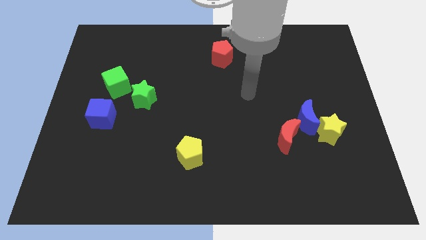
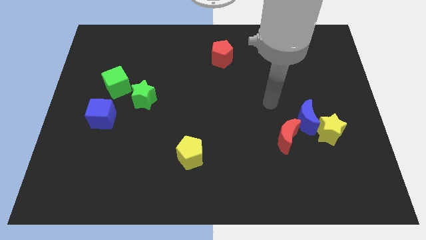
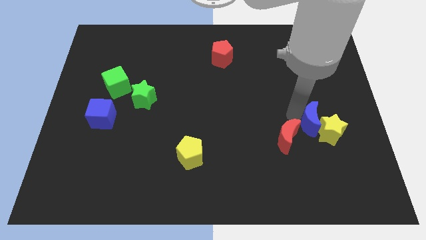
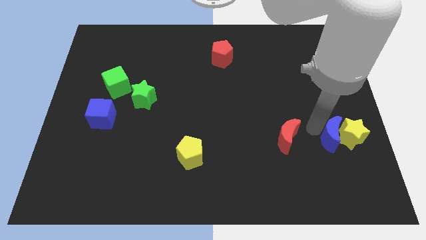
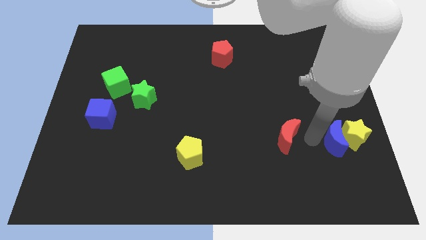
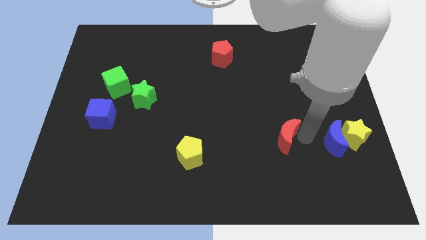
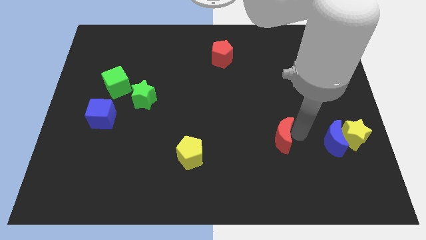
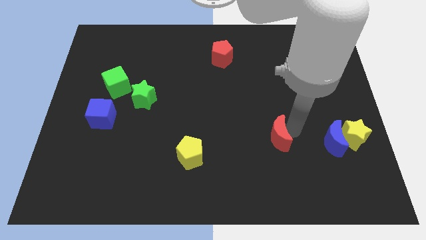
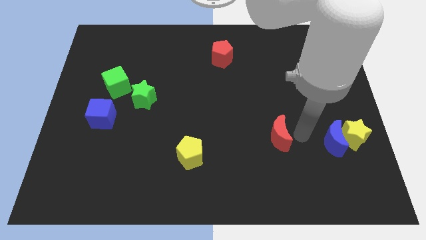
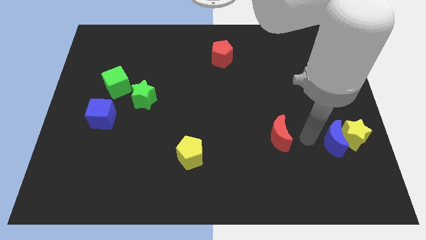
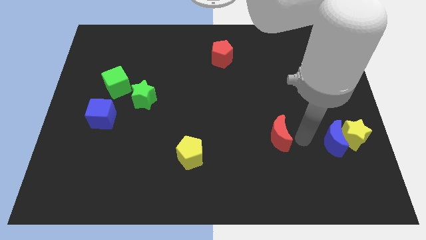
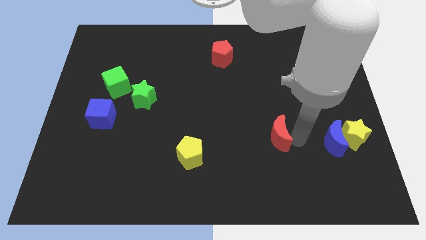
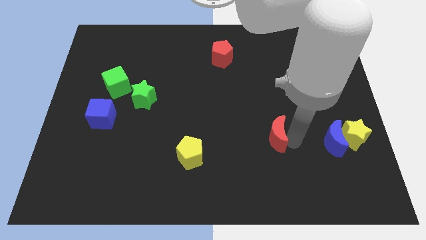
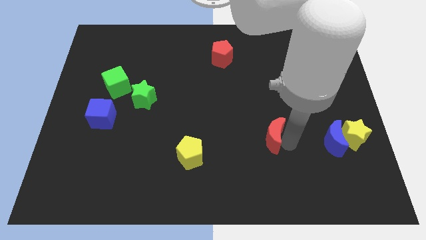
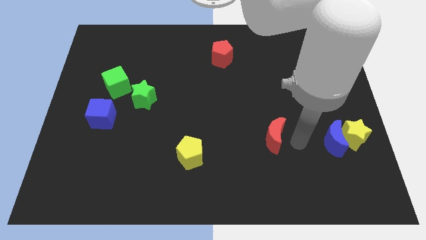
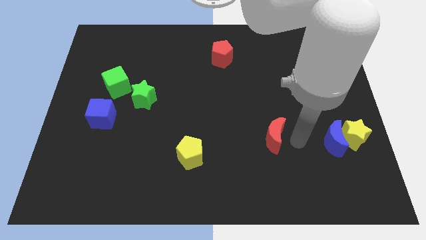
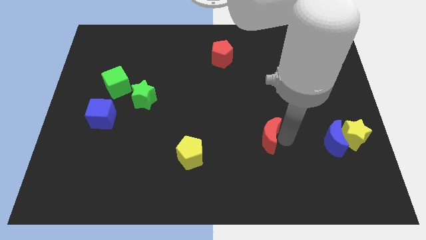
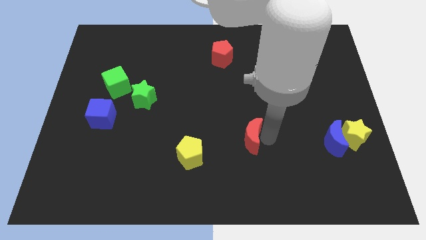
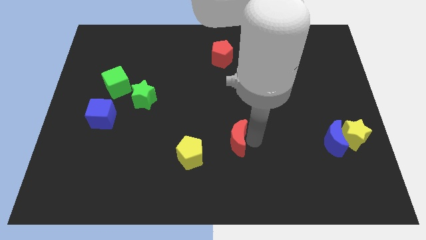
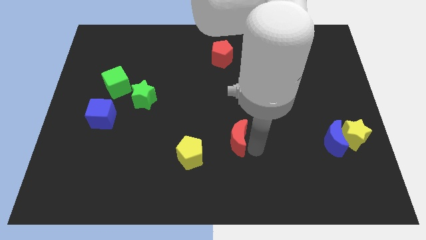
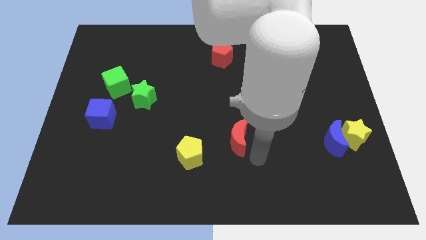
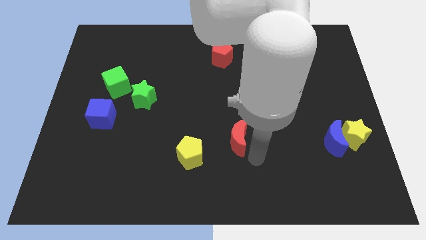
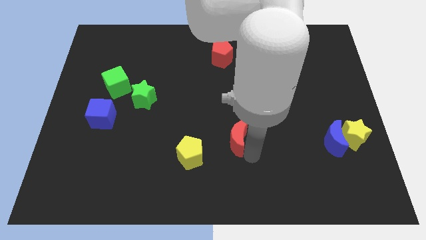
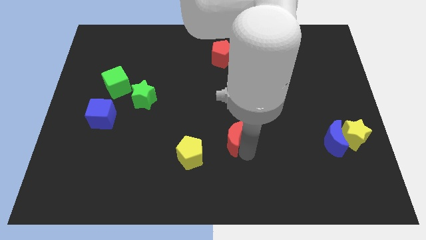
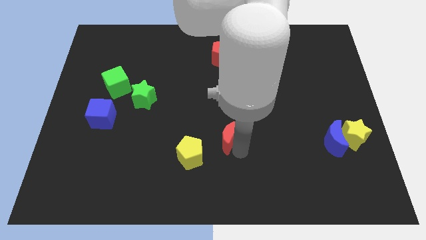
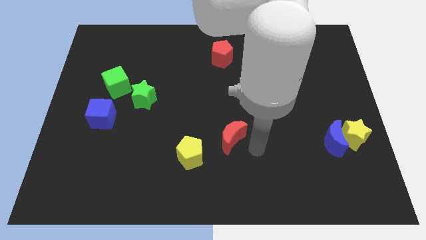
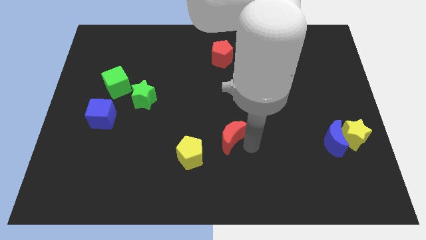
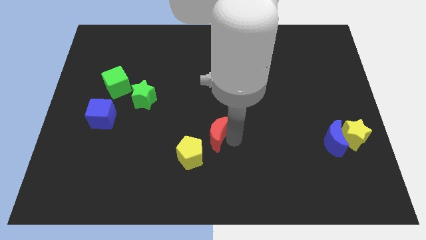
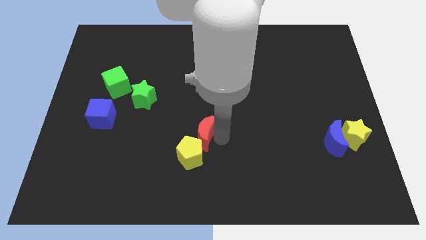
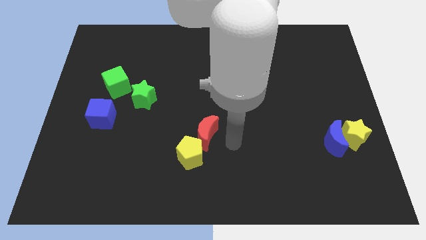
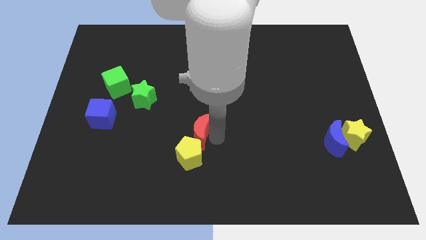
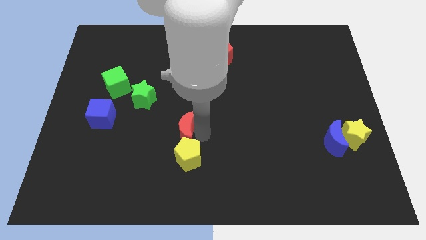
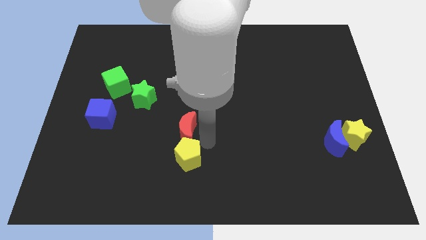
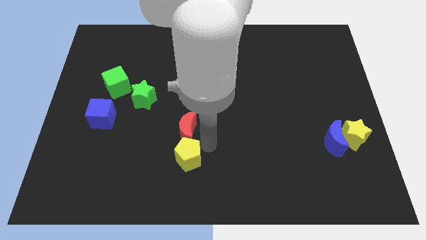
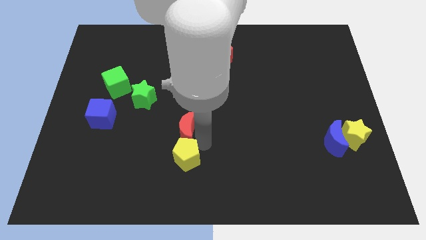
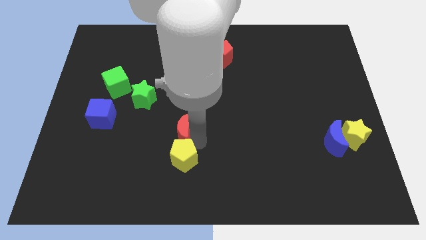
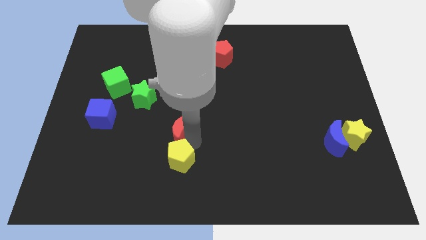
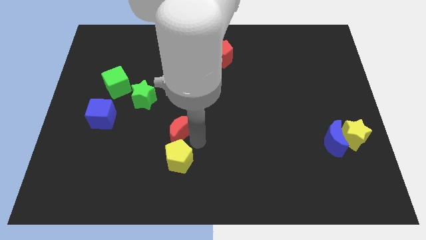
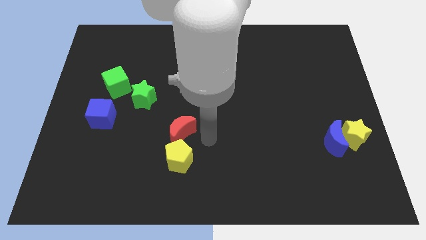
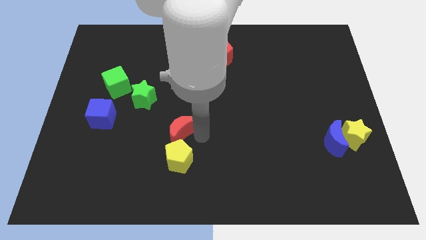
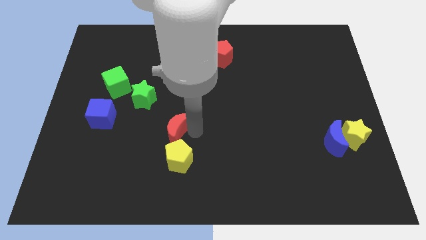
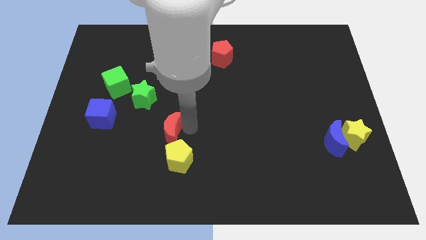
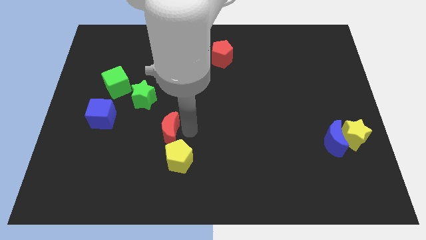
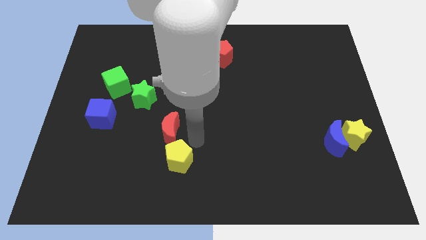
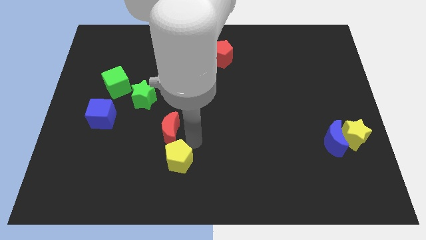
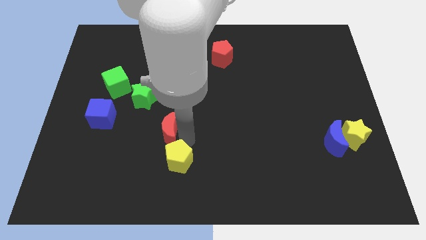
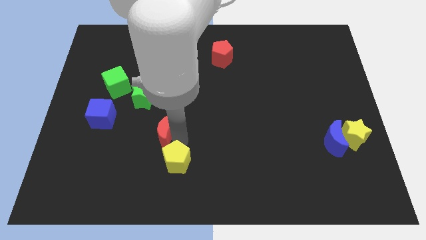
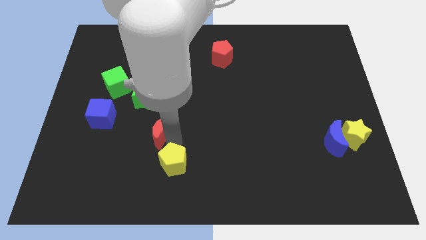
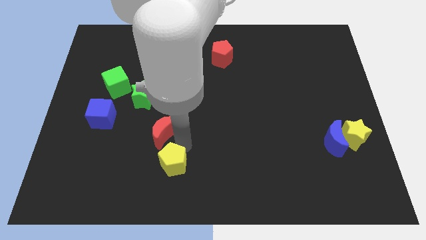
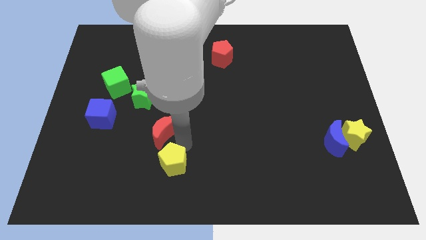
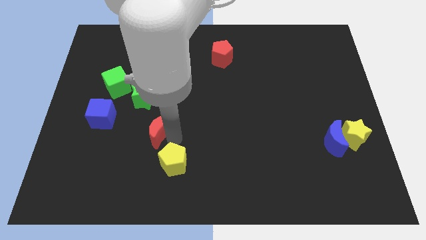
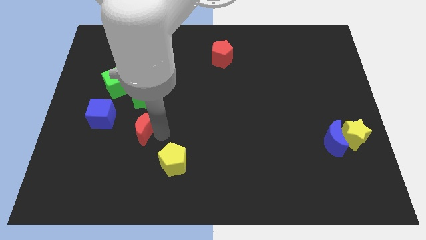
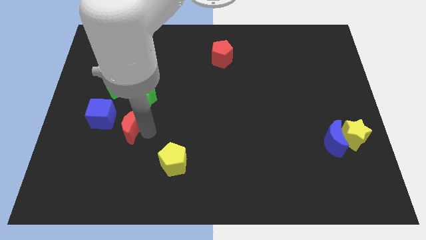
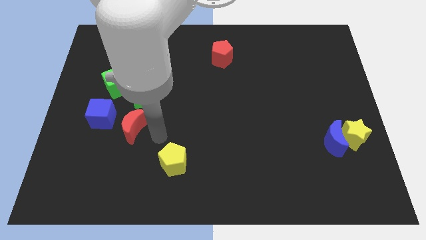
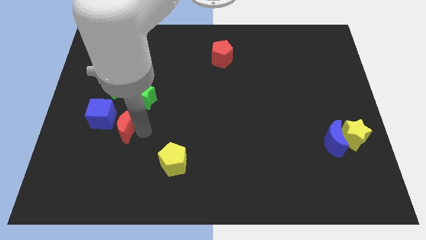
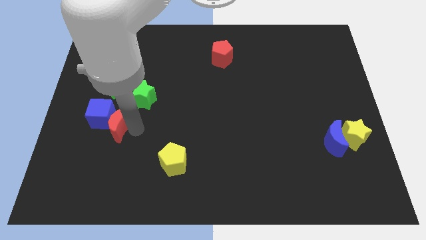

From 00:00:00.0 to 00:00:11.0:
slide the red moon close to the blue cube

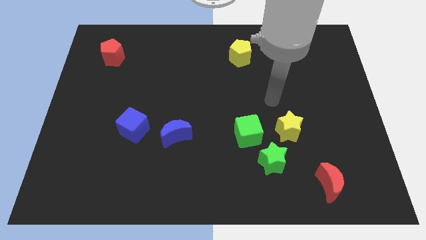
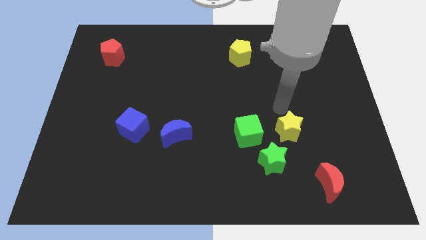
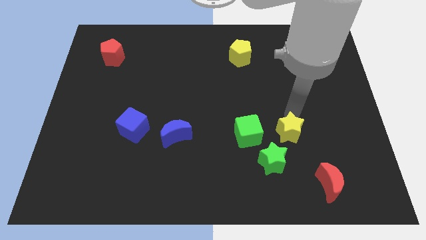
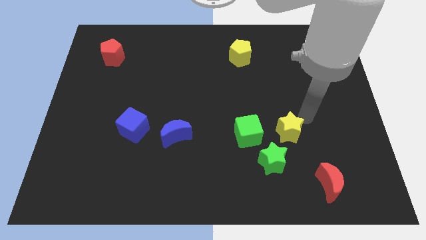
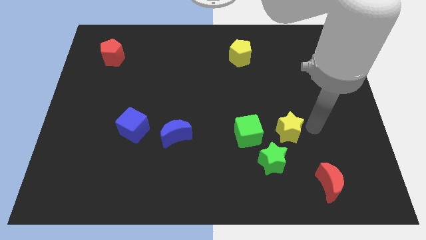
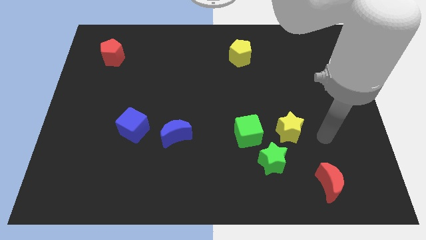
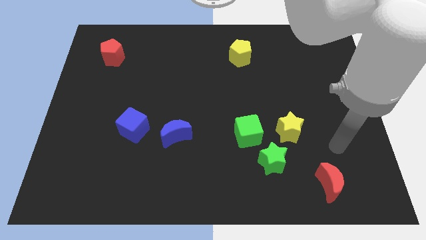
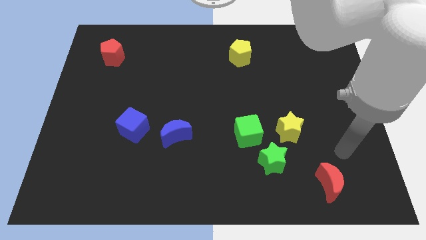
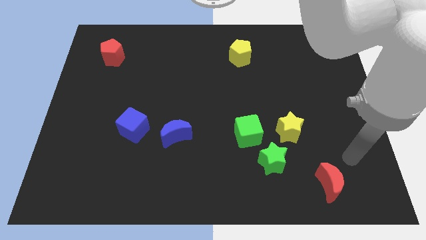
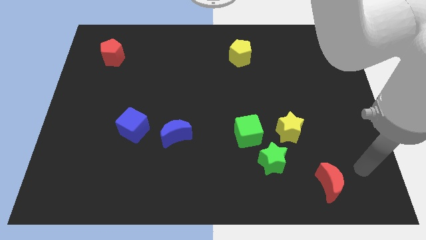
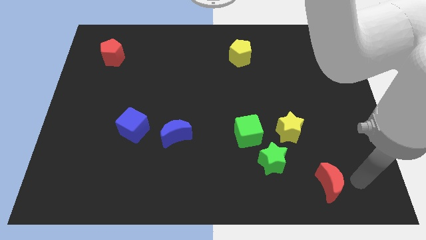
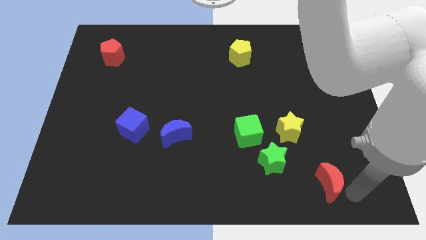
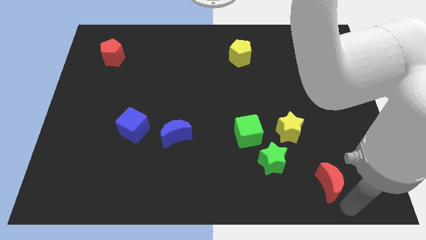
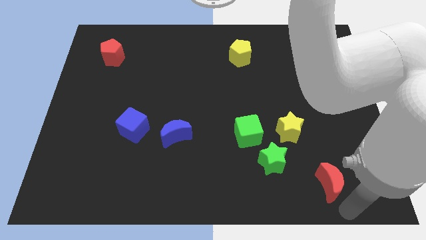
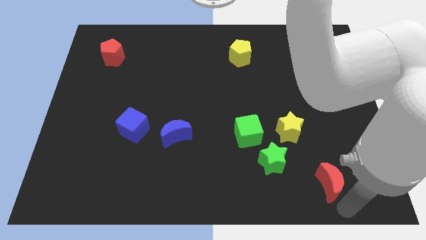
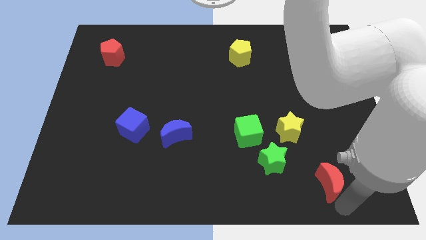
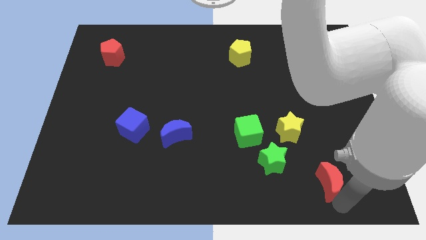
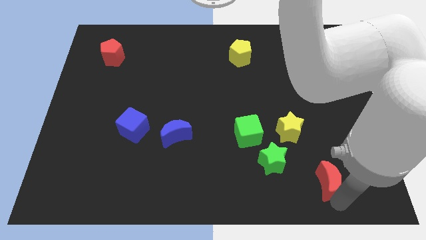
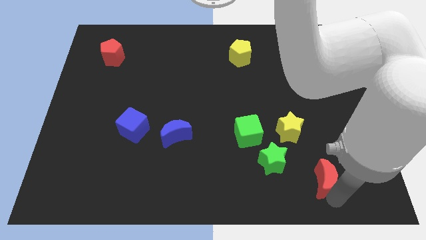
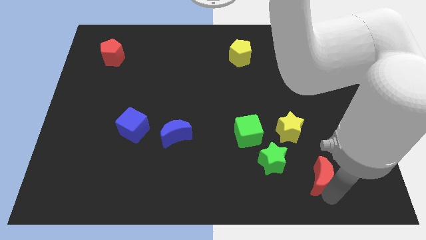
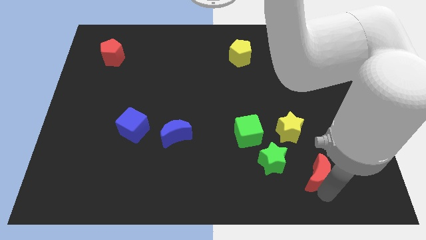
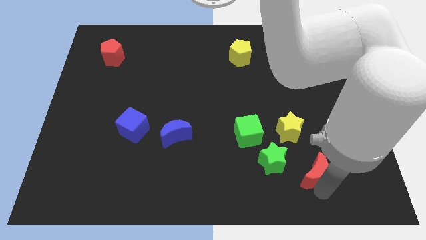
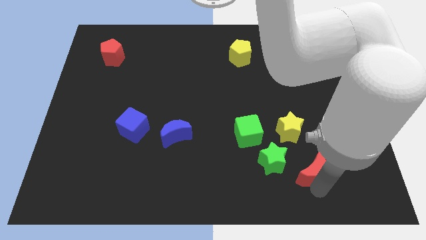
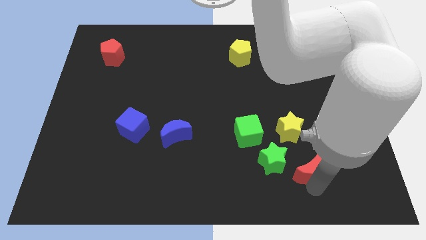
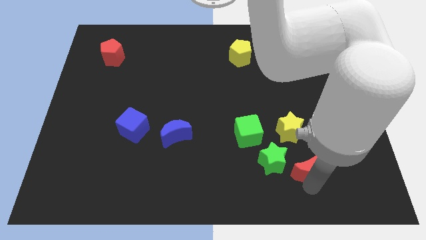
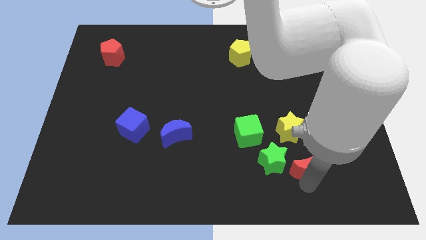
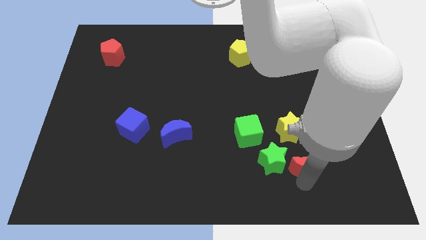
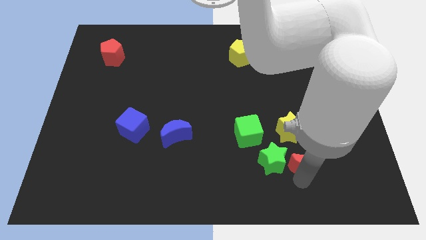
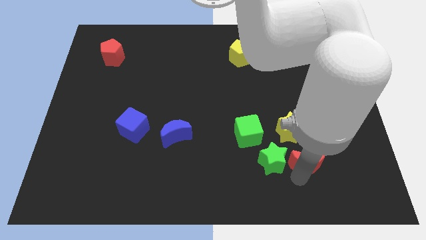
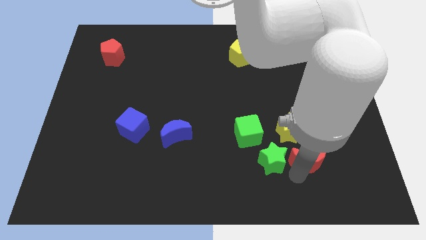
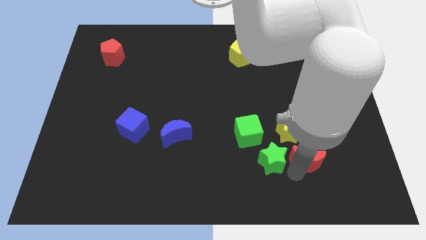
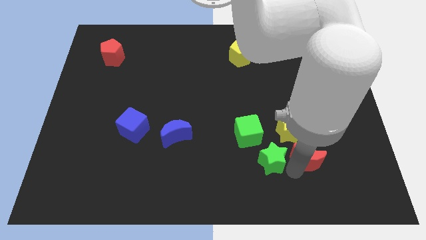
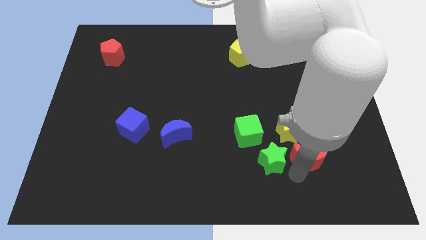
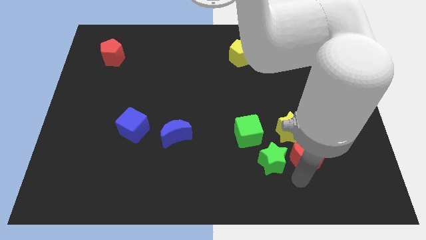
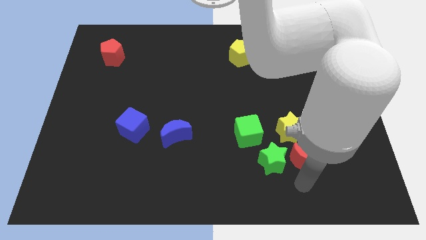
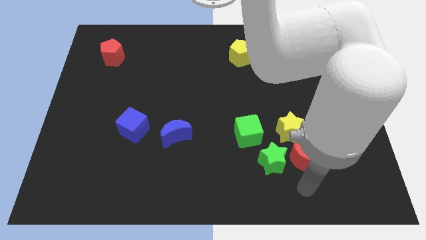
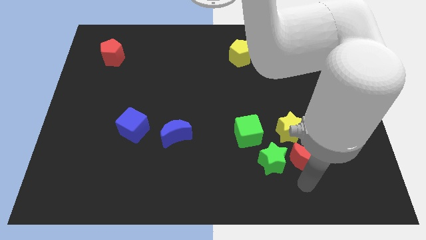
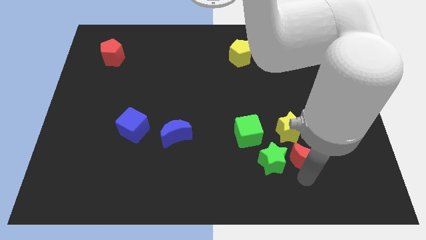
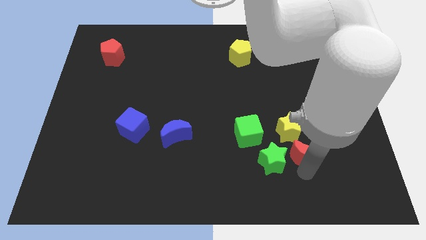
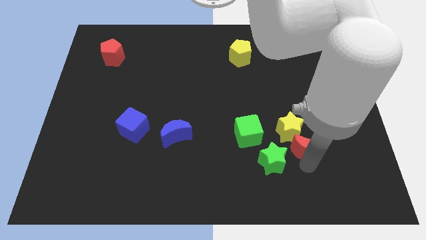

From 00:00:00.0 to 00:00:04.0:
slide the red moon to the yellow star
